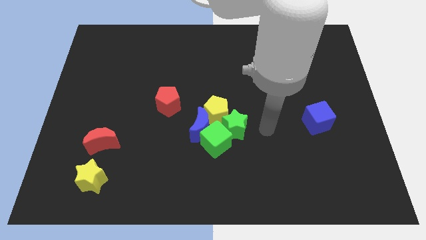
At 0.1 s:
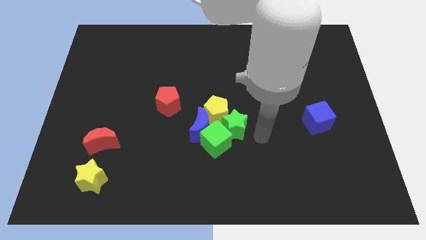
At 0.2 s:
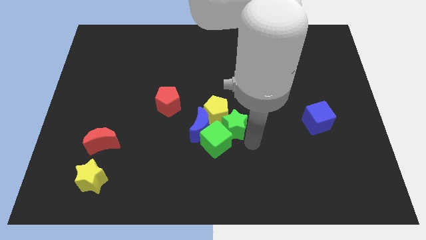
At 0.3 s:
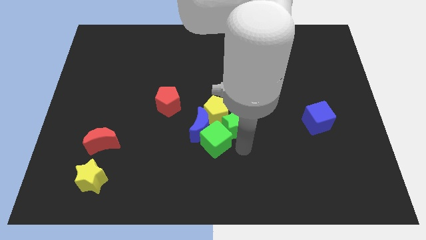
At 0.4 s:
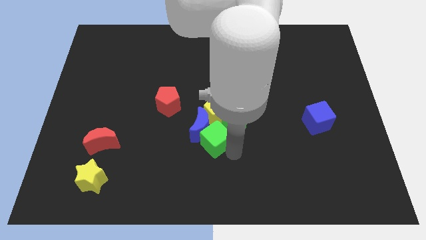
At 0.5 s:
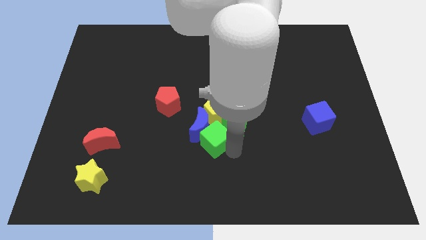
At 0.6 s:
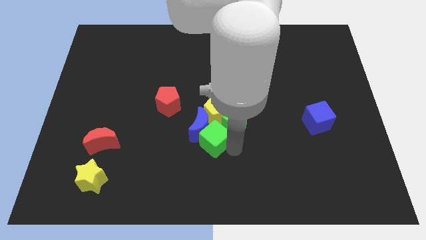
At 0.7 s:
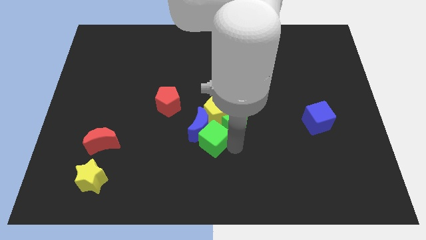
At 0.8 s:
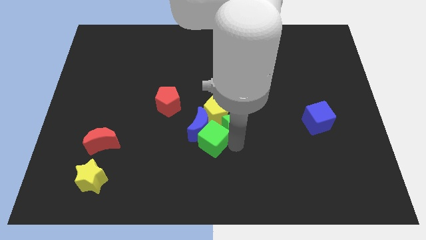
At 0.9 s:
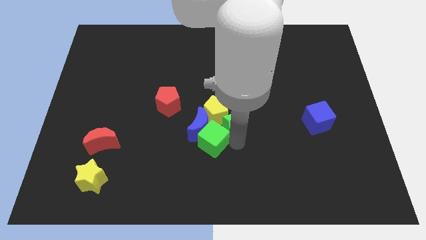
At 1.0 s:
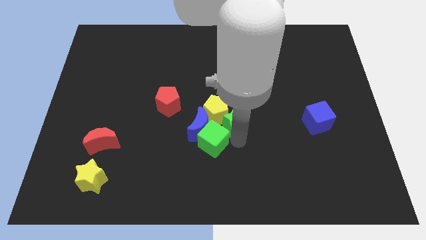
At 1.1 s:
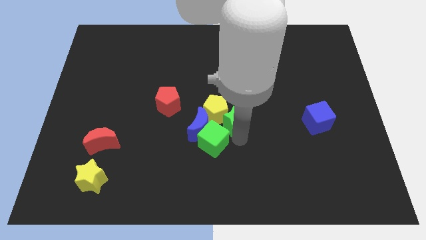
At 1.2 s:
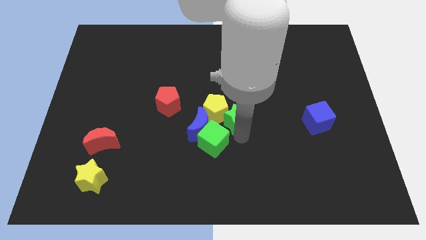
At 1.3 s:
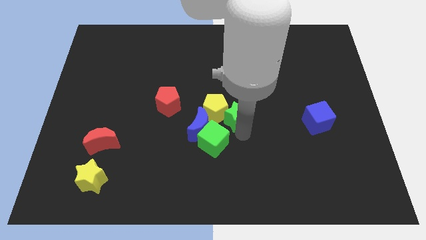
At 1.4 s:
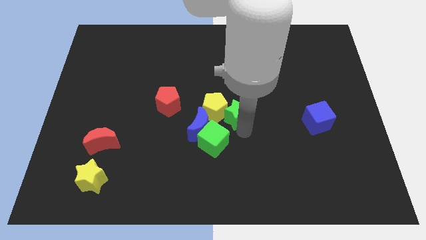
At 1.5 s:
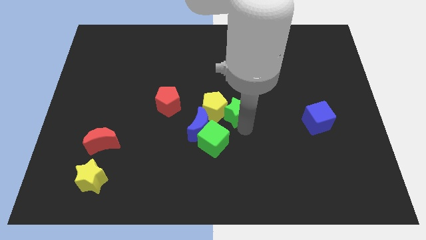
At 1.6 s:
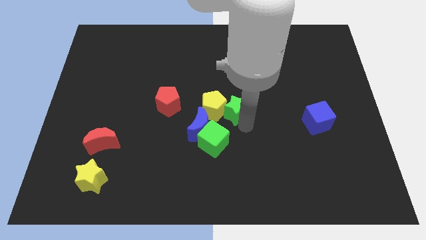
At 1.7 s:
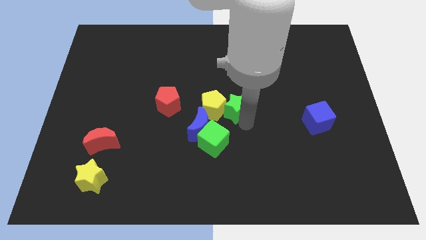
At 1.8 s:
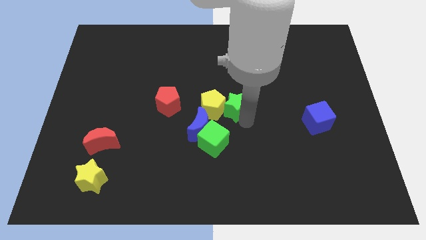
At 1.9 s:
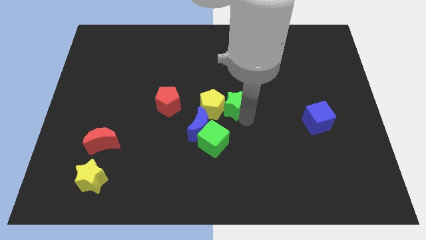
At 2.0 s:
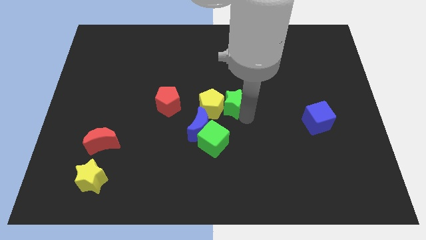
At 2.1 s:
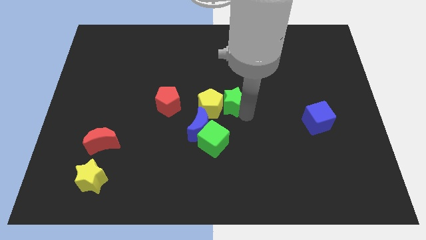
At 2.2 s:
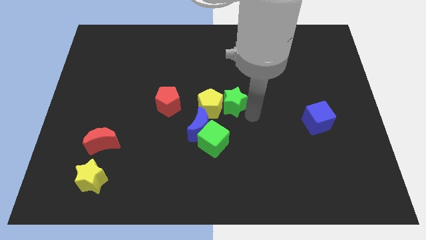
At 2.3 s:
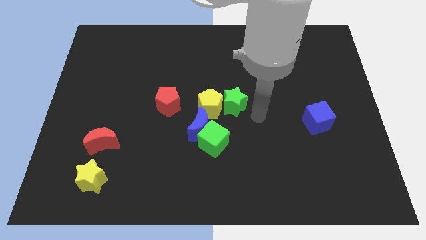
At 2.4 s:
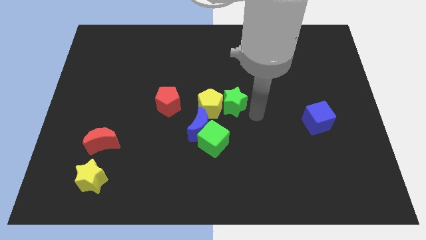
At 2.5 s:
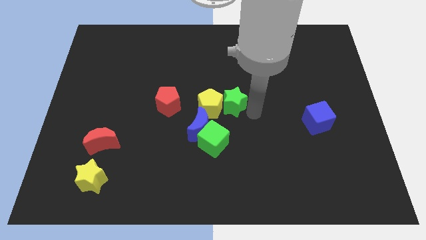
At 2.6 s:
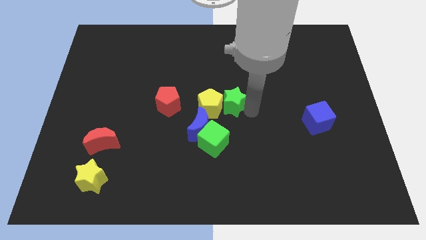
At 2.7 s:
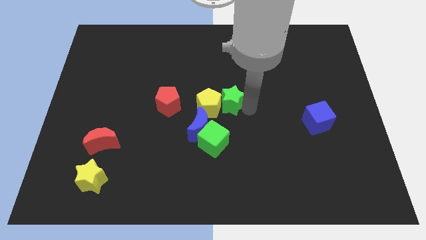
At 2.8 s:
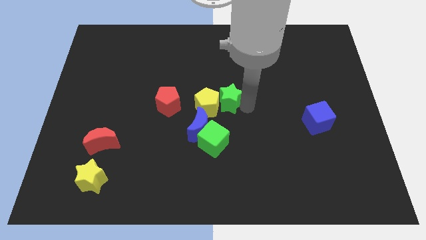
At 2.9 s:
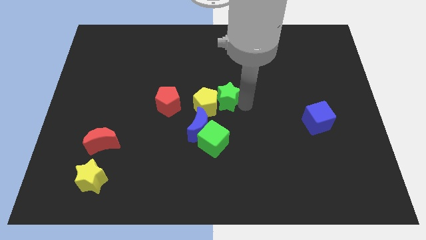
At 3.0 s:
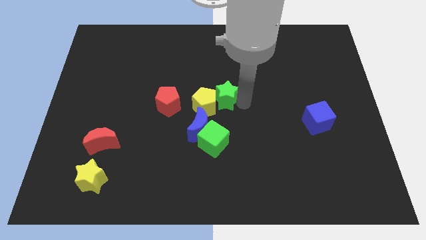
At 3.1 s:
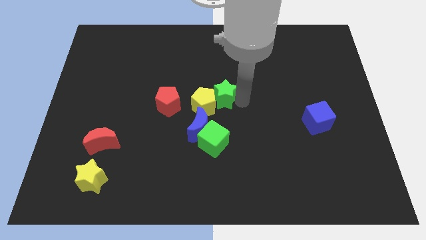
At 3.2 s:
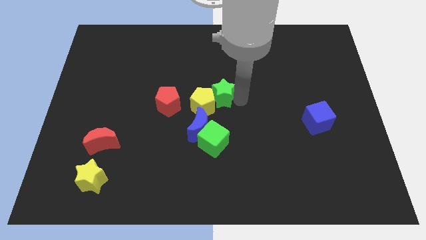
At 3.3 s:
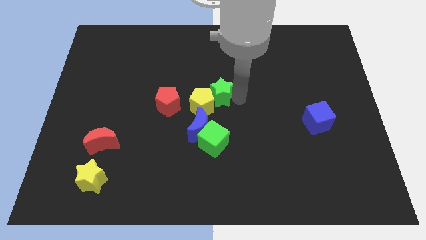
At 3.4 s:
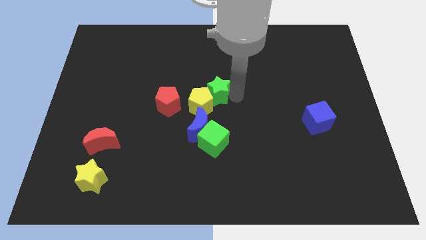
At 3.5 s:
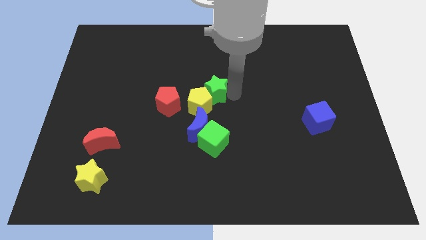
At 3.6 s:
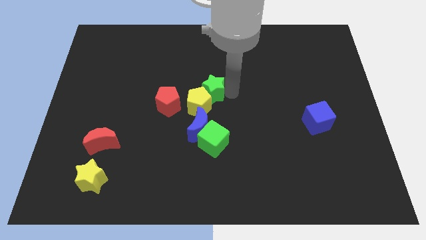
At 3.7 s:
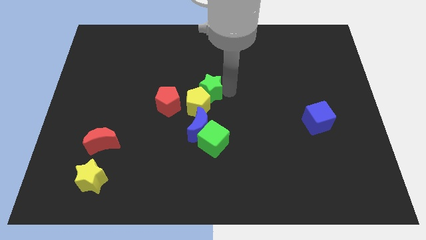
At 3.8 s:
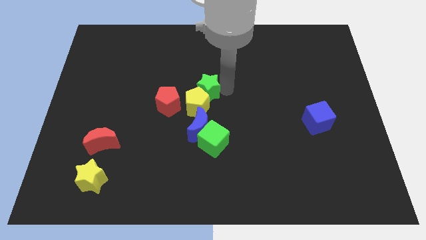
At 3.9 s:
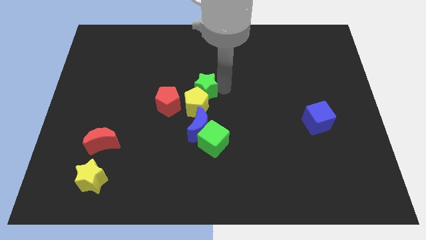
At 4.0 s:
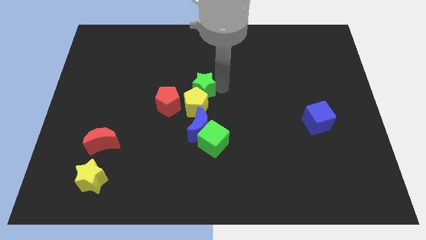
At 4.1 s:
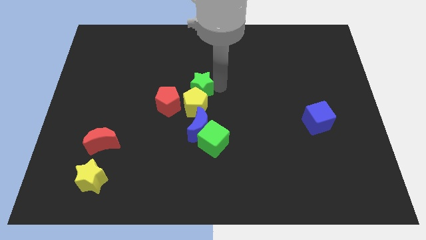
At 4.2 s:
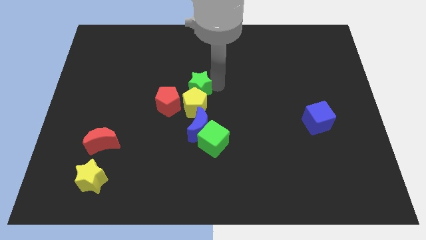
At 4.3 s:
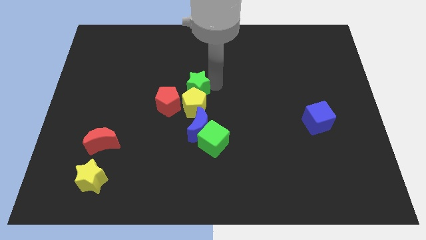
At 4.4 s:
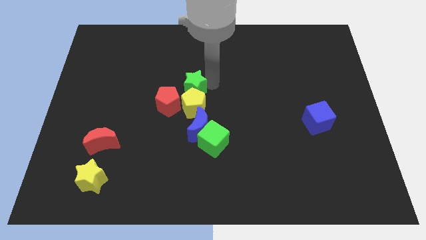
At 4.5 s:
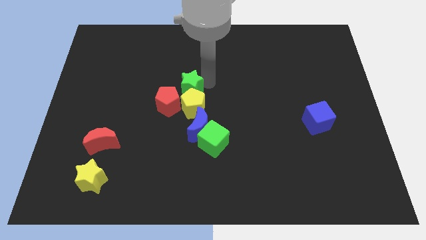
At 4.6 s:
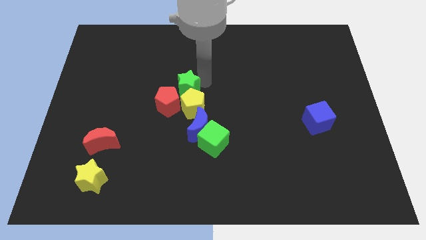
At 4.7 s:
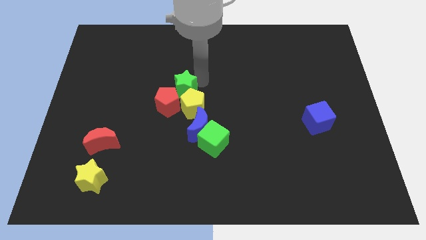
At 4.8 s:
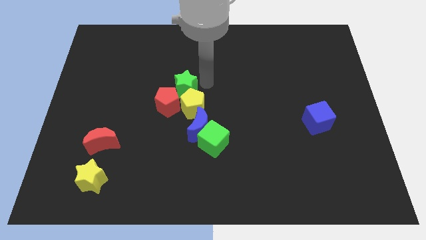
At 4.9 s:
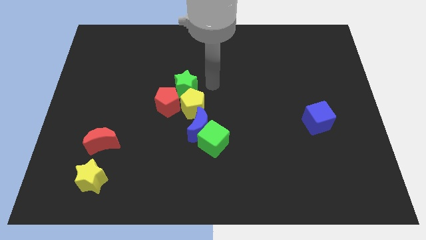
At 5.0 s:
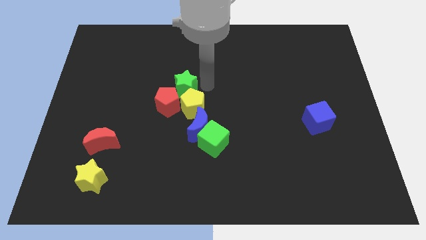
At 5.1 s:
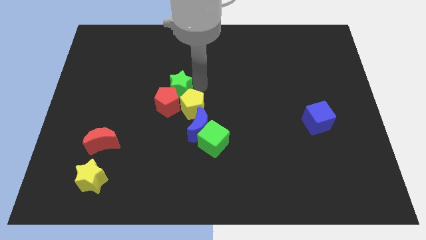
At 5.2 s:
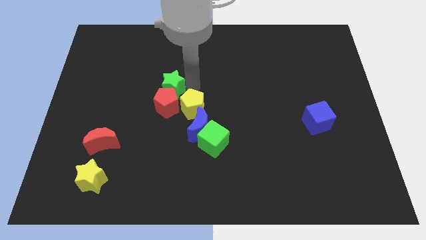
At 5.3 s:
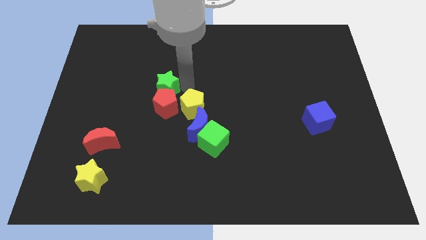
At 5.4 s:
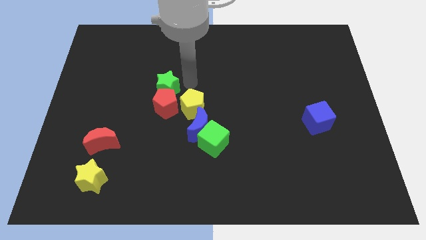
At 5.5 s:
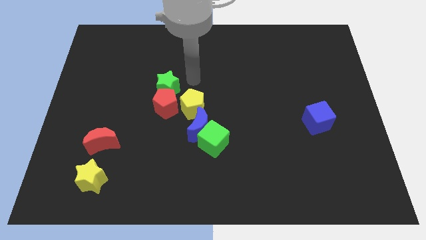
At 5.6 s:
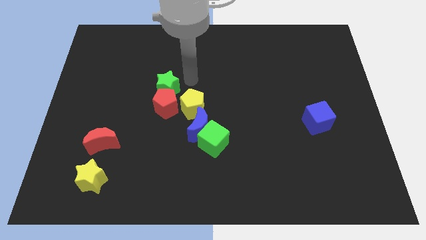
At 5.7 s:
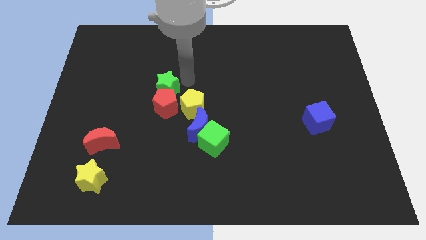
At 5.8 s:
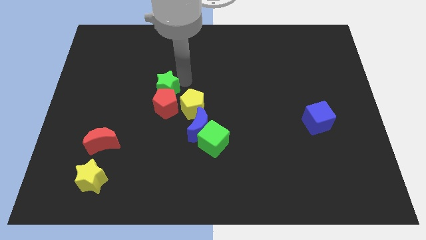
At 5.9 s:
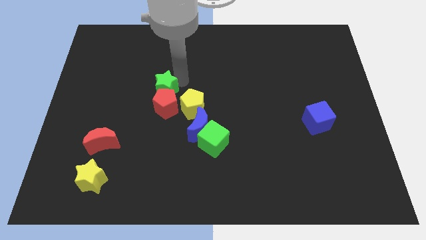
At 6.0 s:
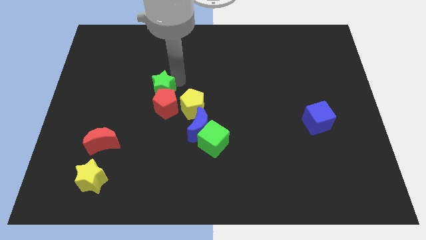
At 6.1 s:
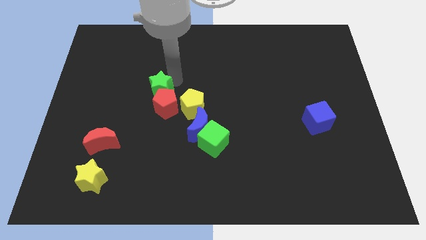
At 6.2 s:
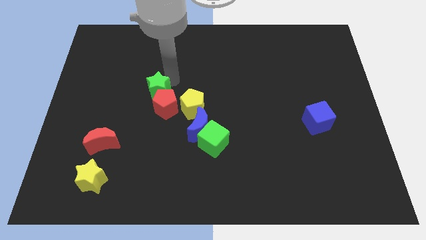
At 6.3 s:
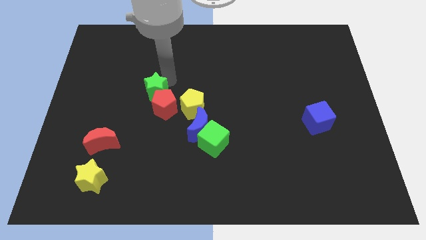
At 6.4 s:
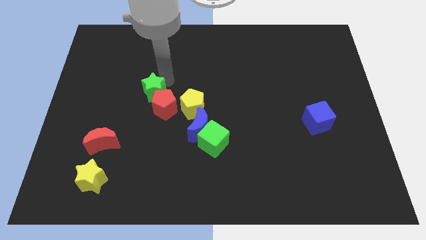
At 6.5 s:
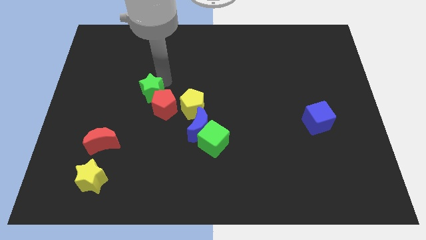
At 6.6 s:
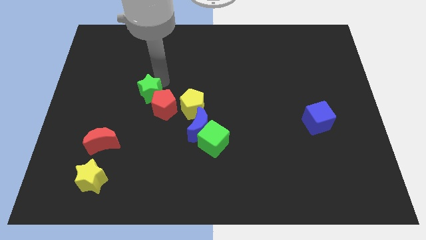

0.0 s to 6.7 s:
push the green star just left of the red pentagon
